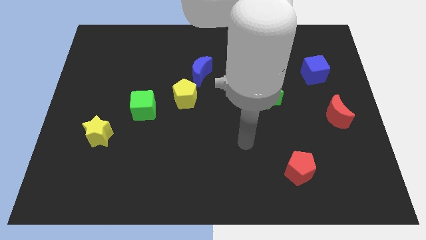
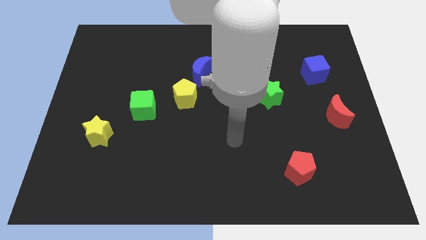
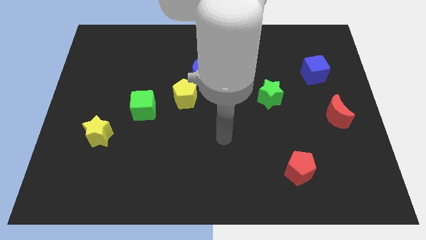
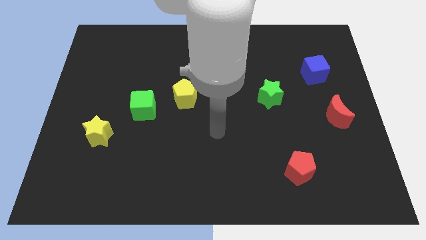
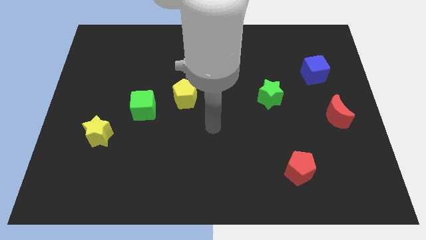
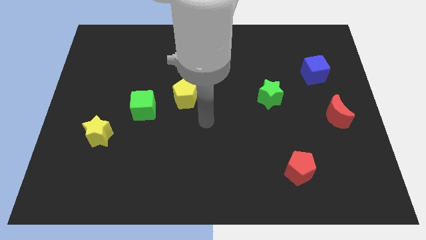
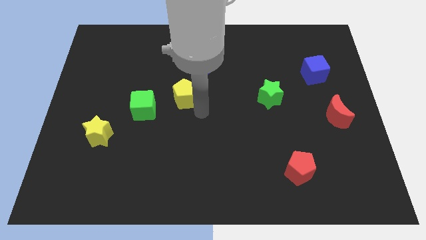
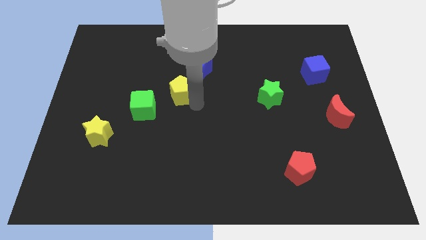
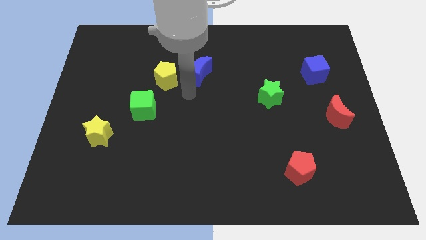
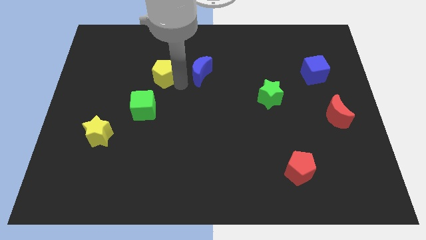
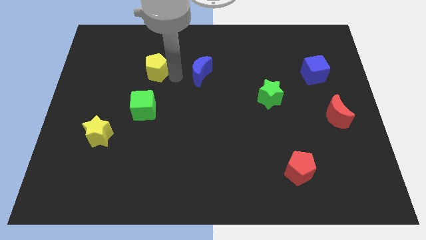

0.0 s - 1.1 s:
pull the blue moon apart from the yellow pentagon

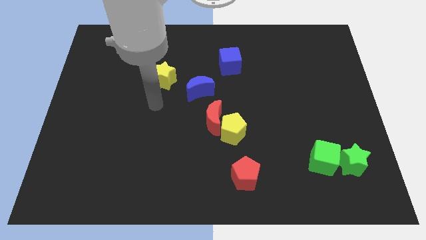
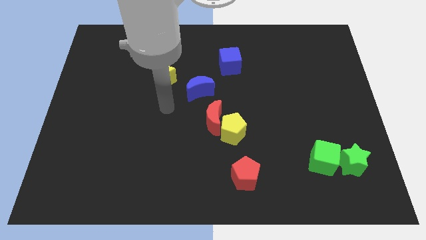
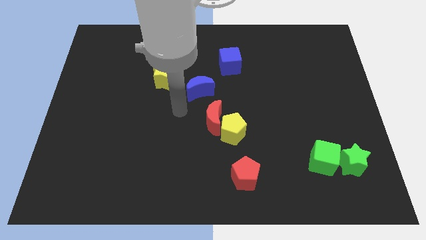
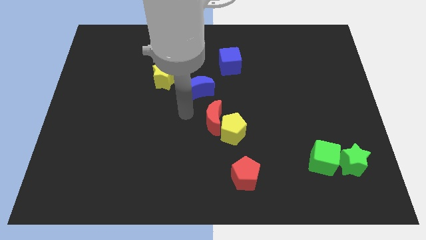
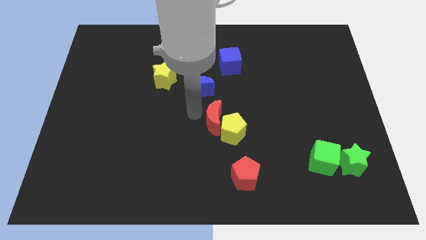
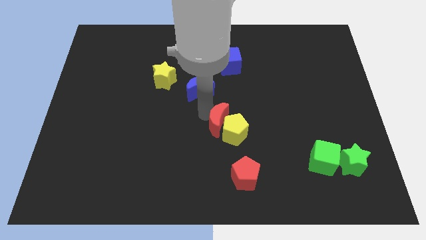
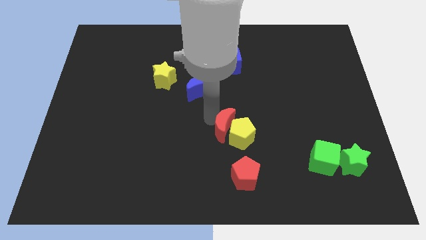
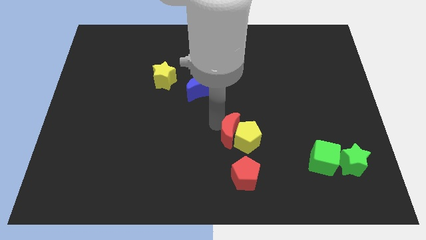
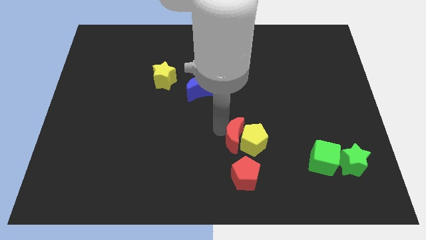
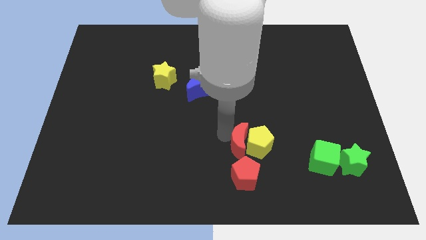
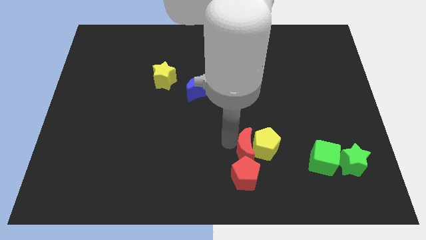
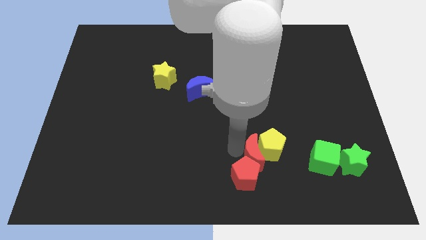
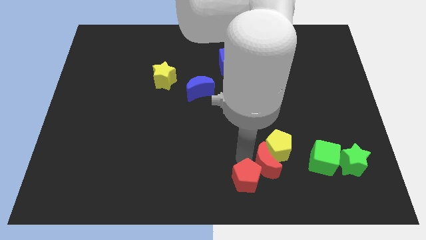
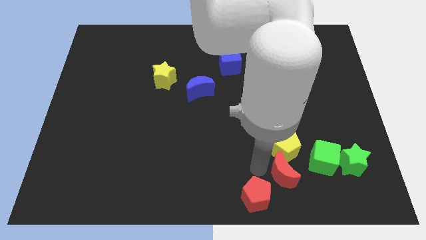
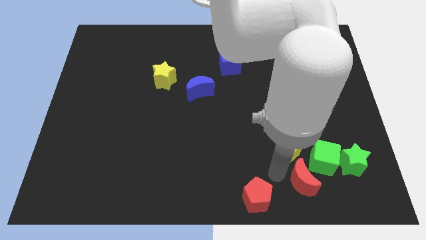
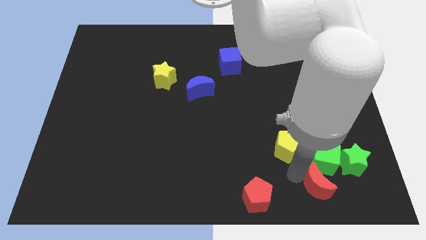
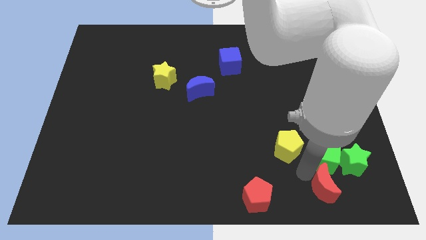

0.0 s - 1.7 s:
move the yellow pentagon away from the red moon

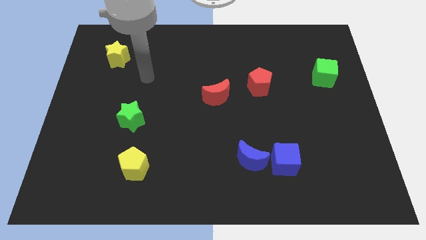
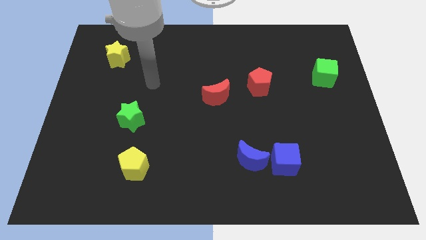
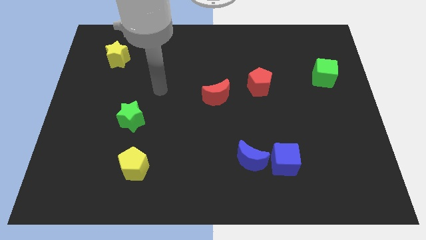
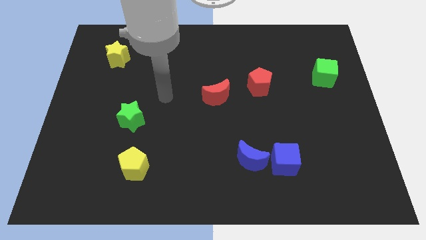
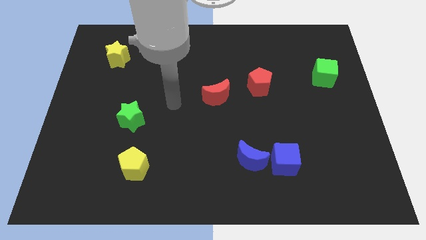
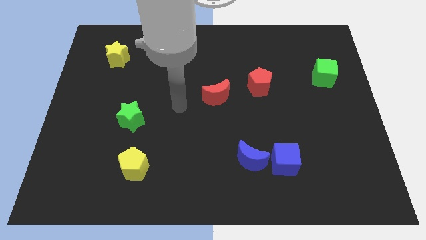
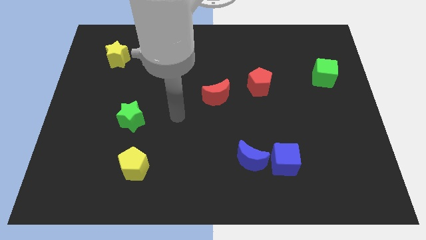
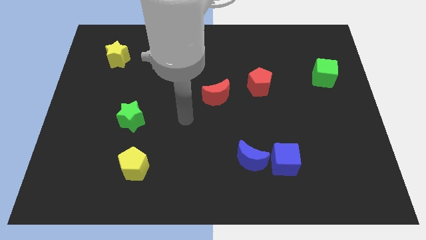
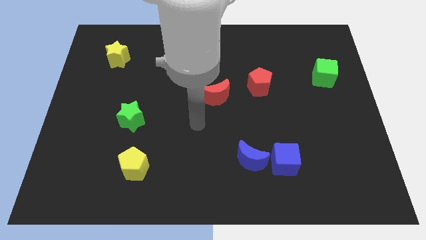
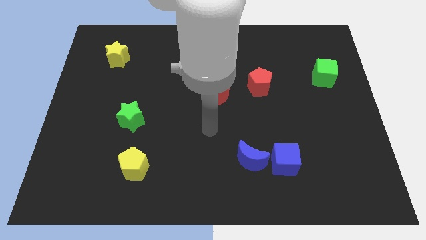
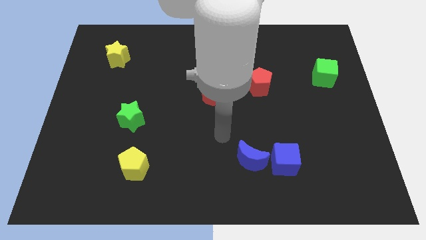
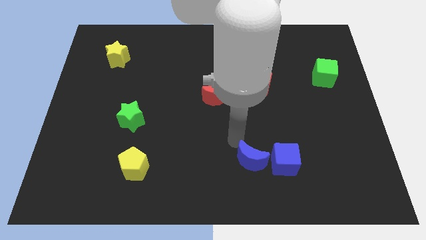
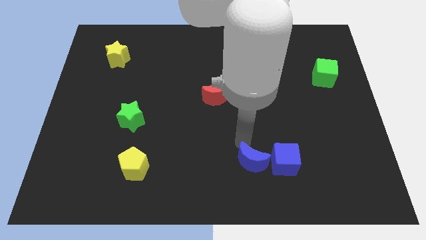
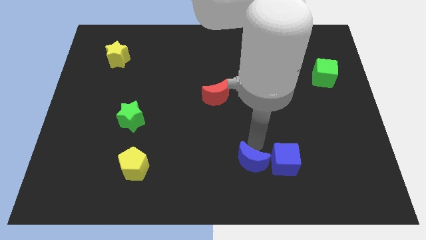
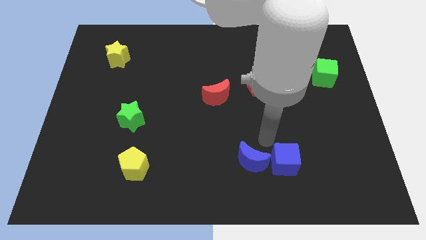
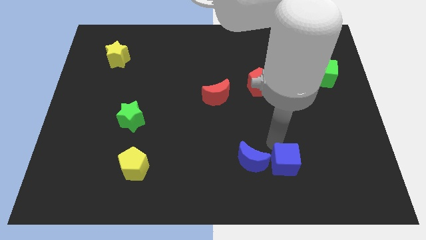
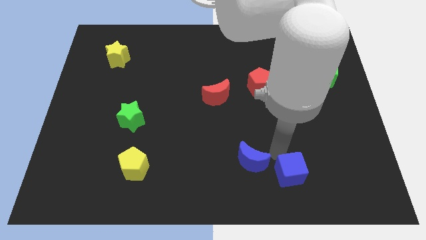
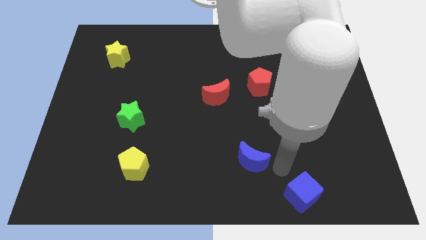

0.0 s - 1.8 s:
move the blue moon away from the blue cube

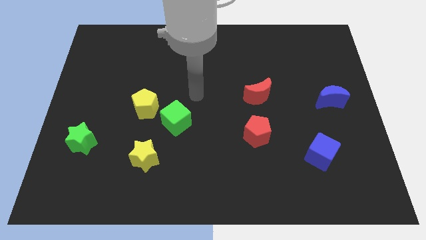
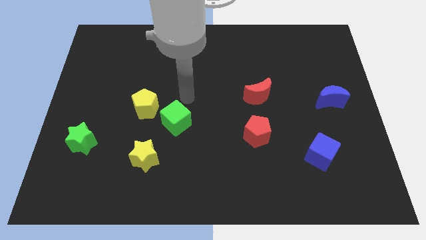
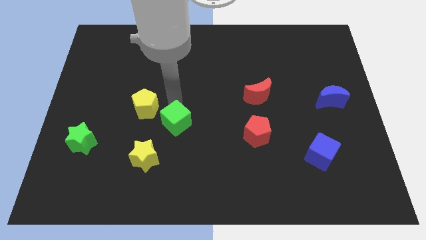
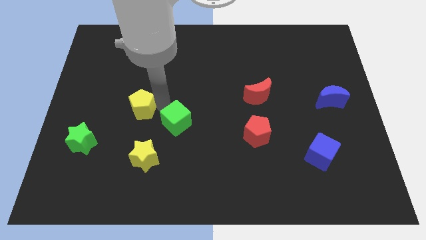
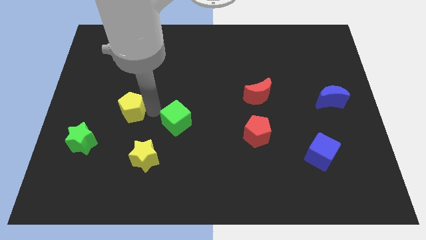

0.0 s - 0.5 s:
pull the green cube apart from the yellow pentagon

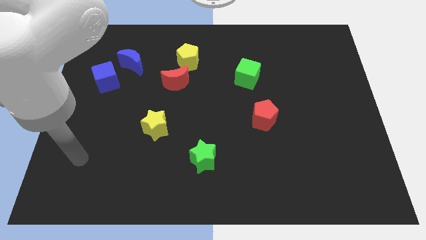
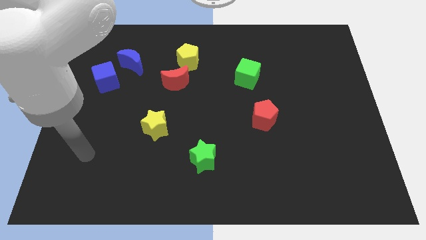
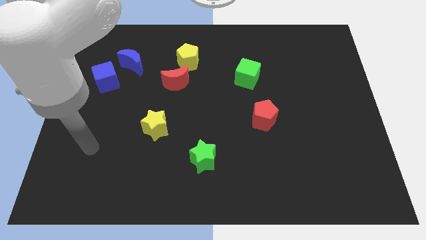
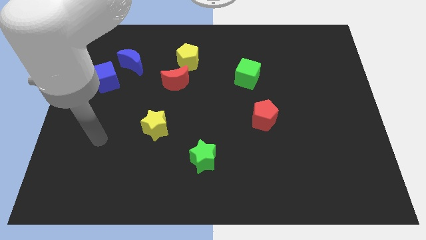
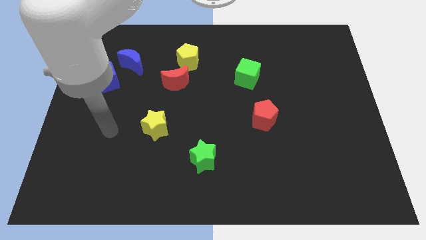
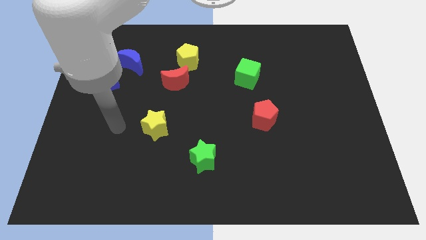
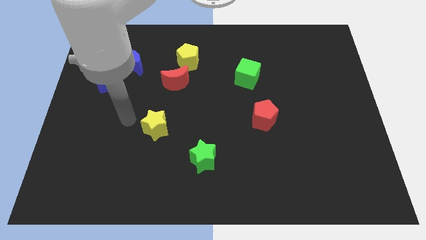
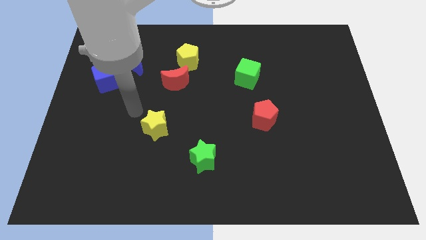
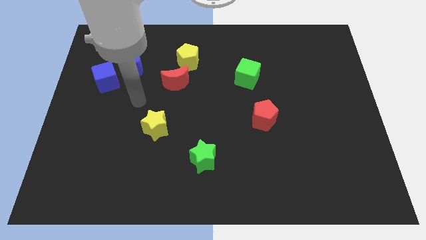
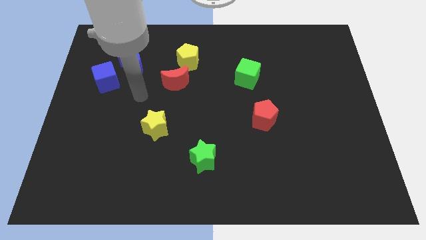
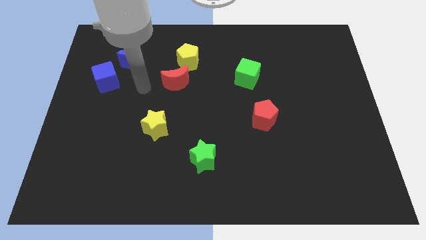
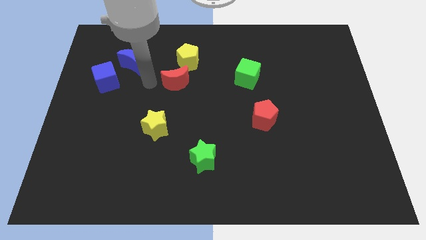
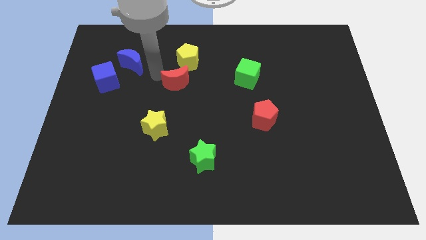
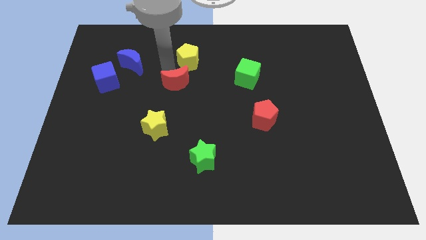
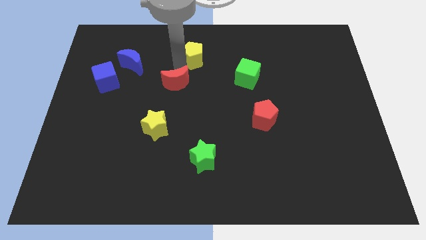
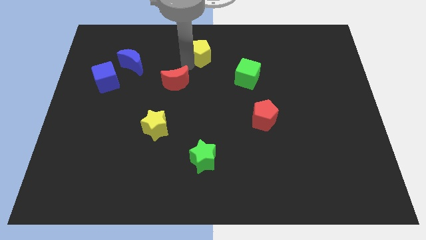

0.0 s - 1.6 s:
pull the red moon apart from the yellow pentagon

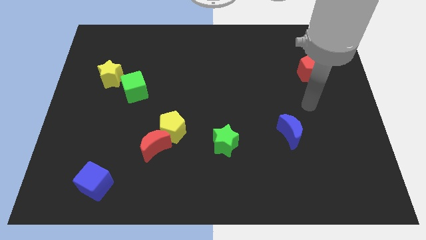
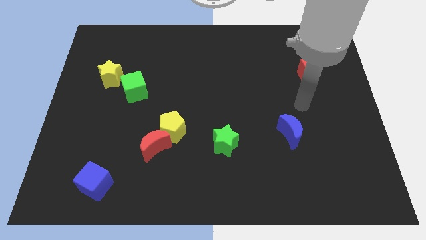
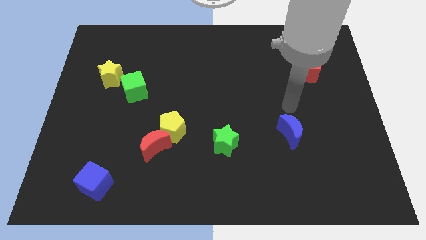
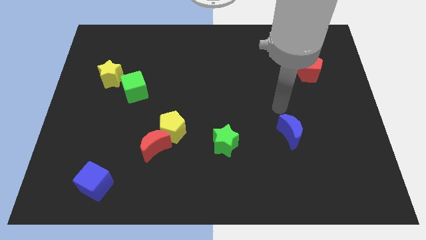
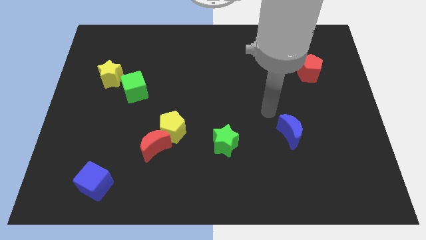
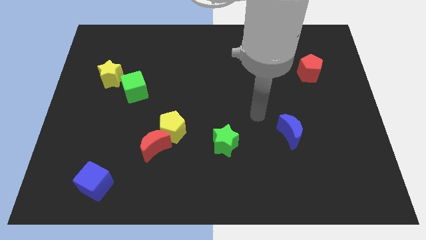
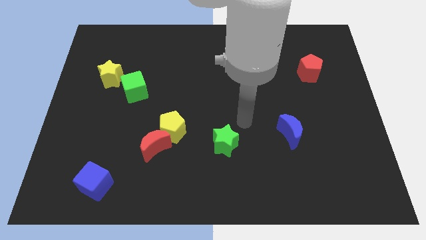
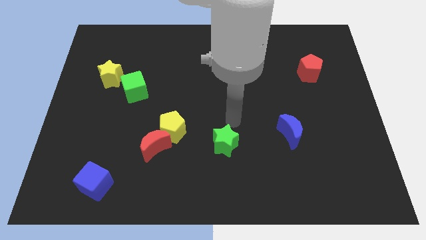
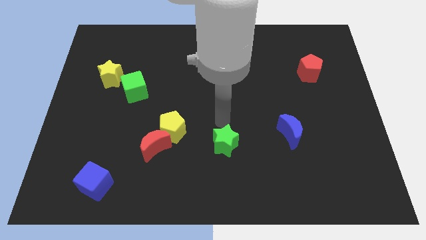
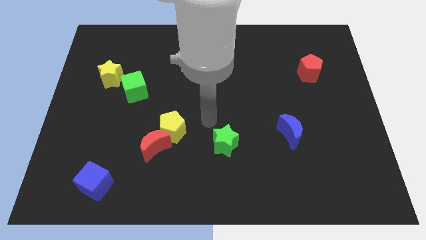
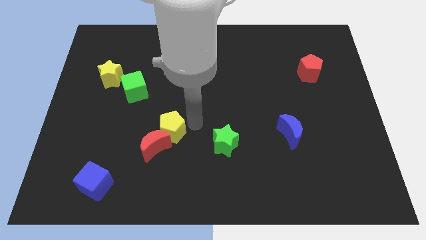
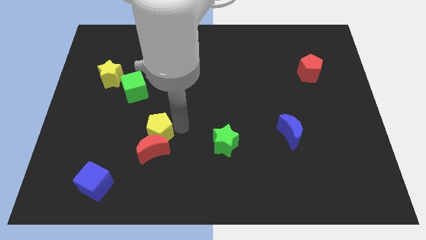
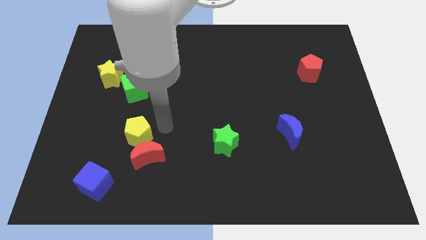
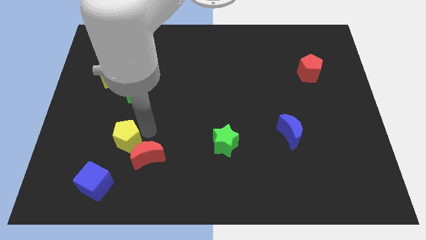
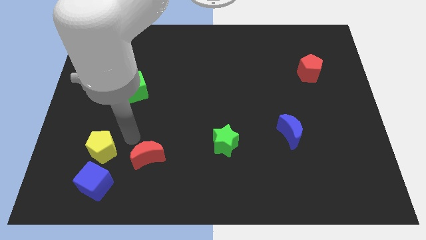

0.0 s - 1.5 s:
separate the red moon from the yellow pentagon

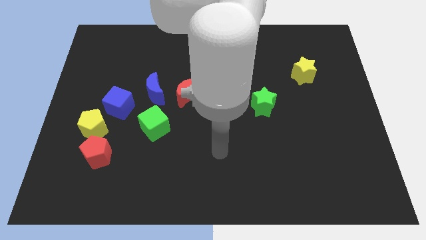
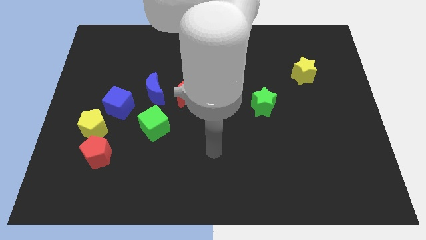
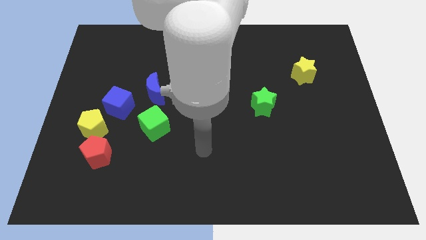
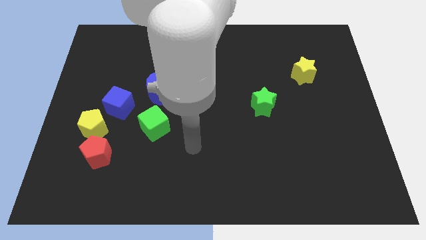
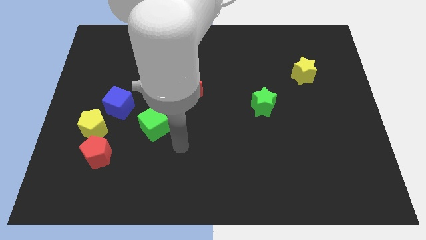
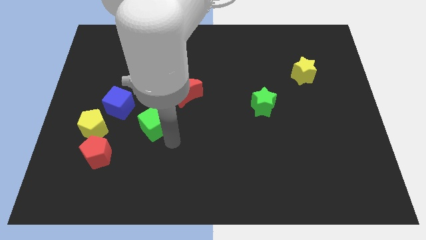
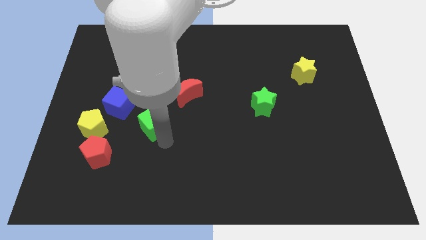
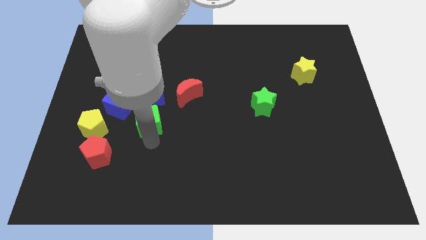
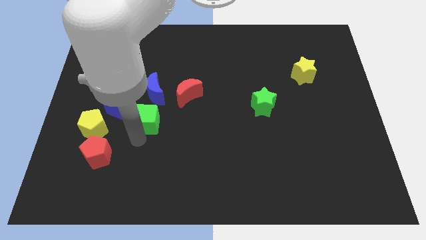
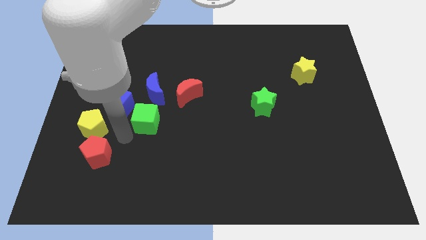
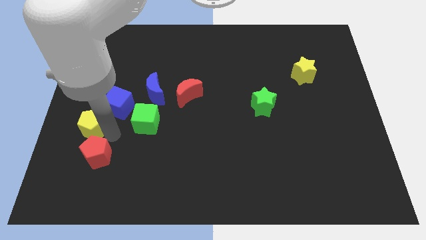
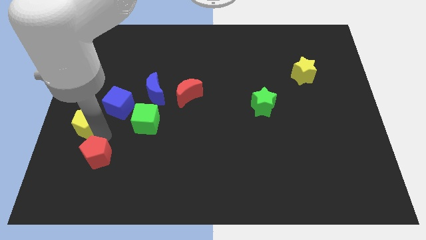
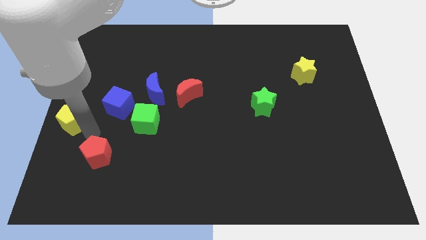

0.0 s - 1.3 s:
separate the red pentagon from the yellow pentagon
